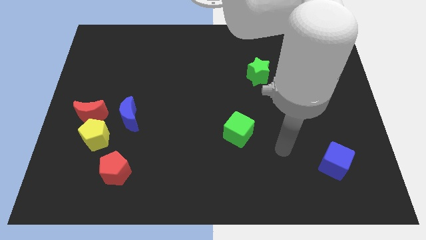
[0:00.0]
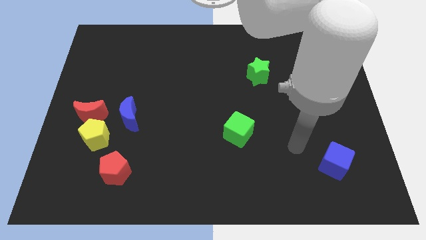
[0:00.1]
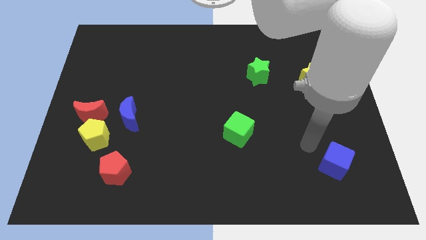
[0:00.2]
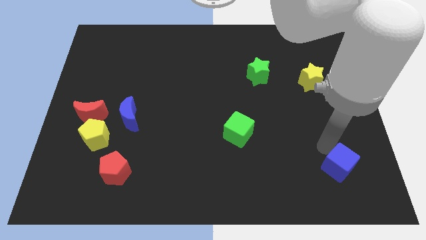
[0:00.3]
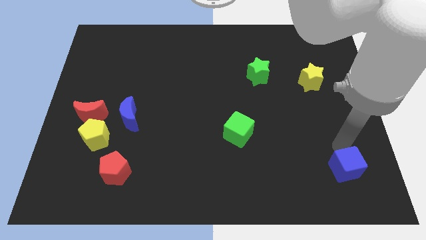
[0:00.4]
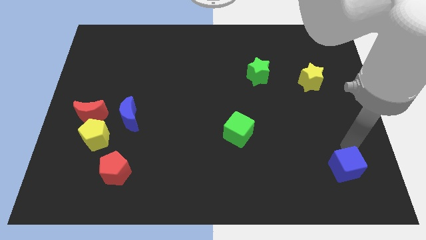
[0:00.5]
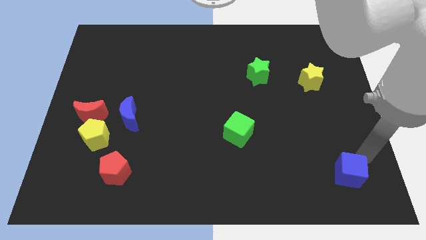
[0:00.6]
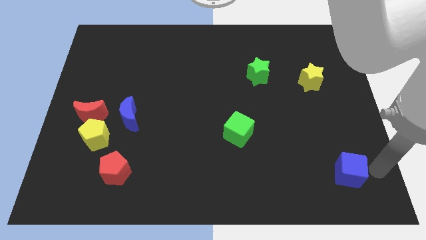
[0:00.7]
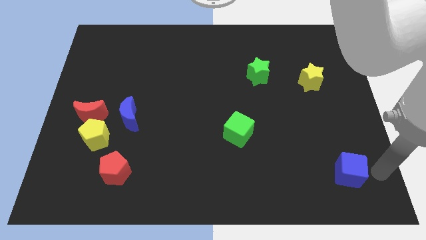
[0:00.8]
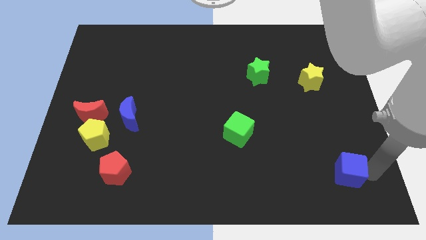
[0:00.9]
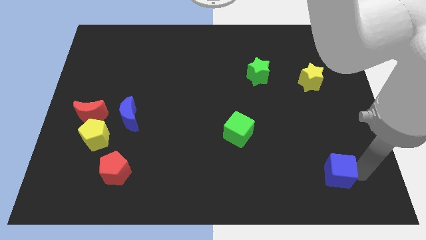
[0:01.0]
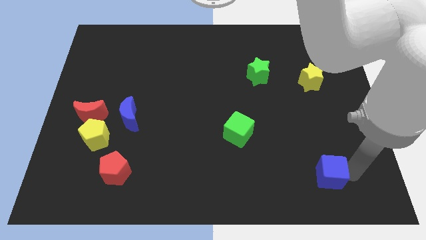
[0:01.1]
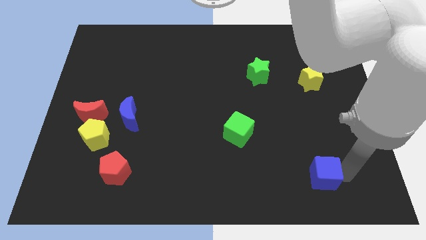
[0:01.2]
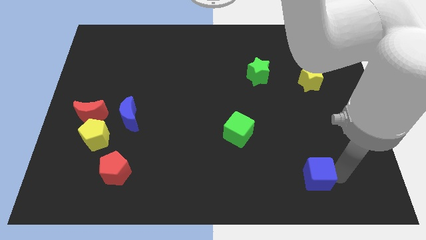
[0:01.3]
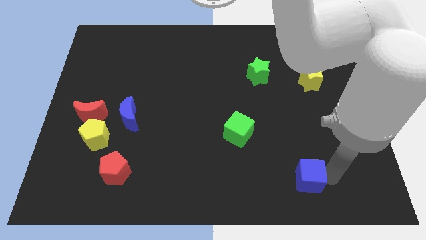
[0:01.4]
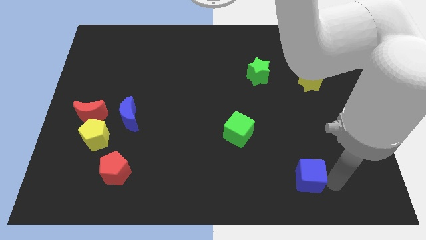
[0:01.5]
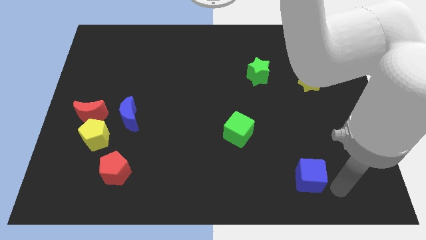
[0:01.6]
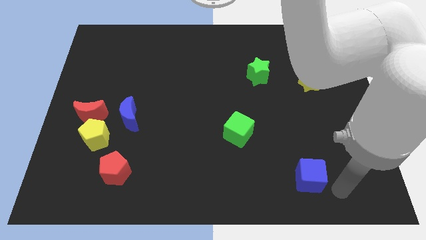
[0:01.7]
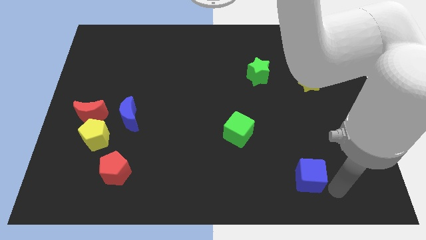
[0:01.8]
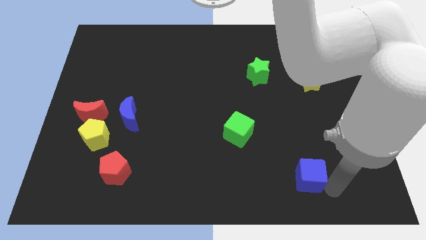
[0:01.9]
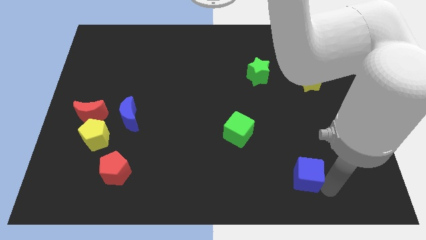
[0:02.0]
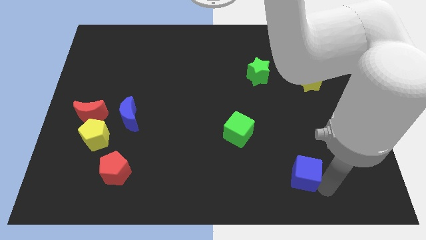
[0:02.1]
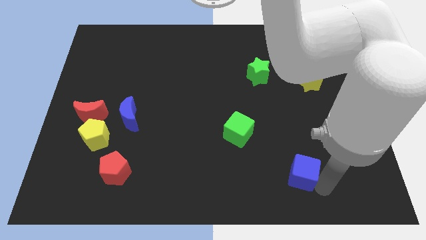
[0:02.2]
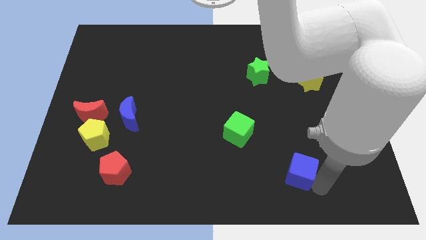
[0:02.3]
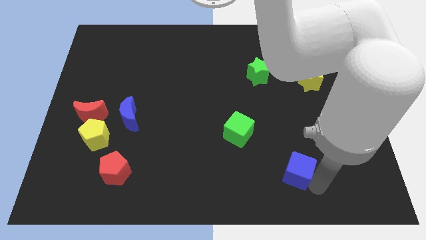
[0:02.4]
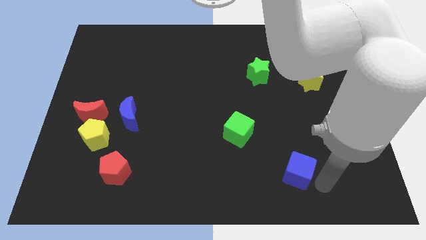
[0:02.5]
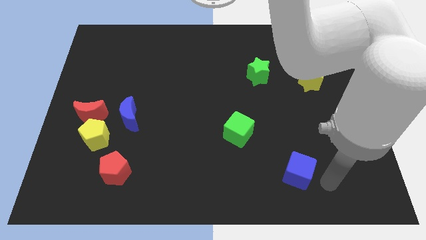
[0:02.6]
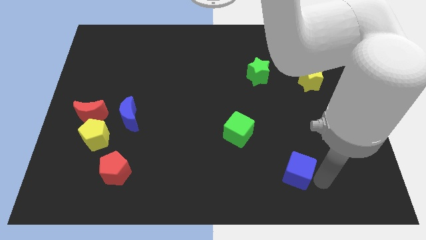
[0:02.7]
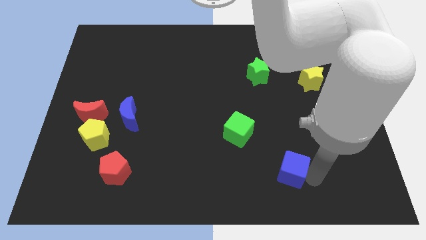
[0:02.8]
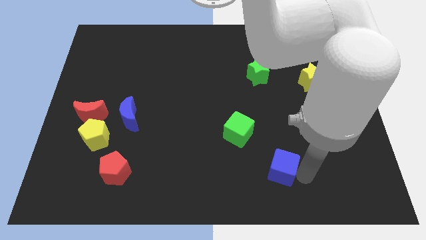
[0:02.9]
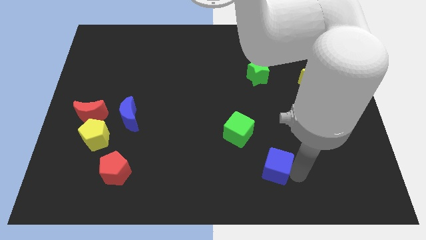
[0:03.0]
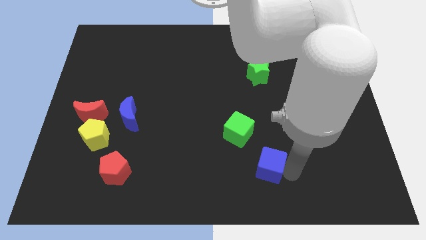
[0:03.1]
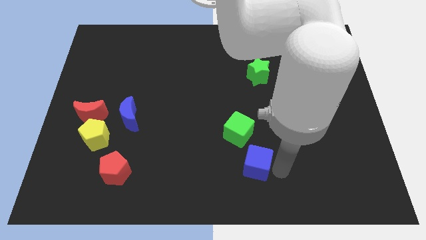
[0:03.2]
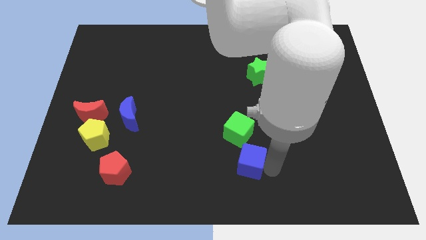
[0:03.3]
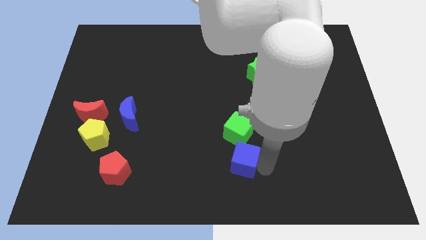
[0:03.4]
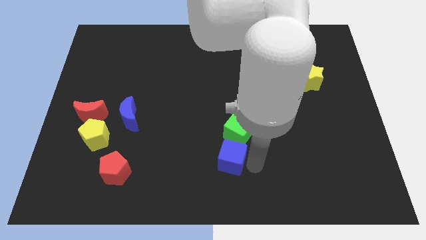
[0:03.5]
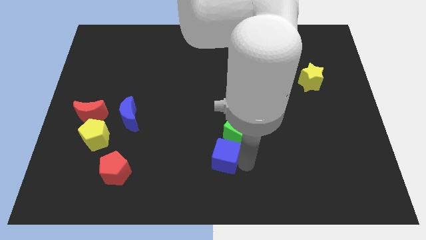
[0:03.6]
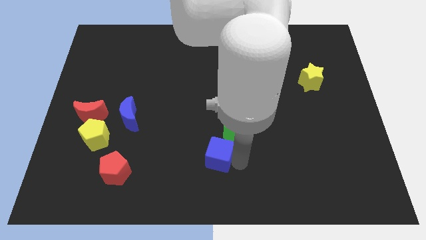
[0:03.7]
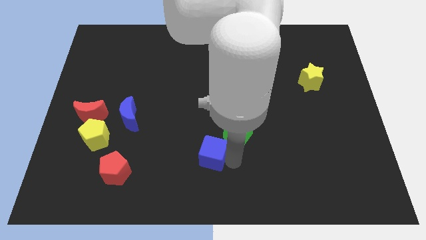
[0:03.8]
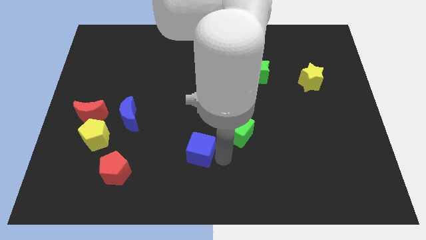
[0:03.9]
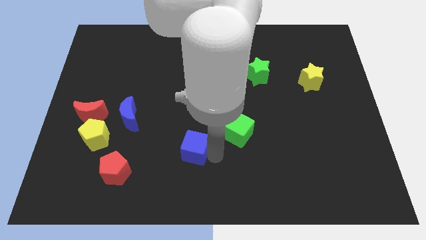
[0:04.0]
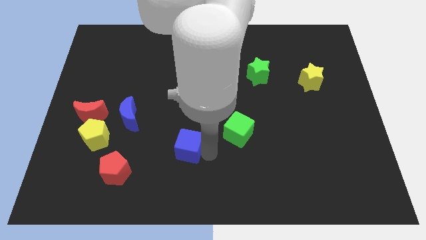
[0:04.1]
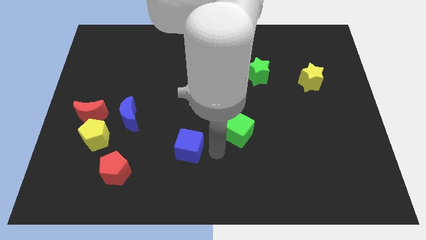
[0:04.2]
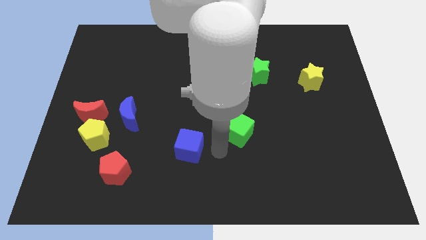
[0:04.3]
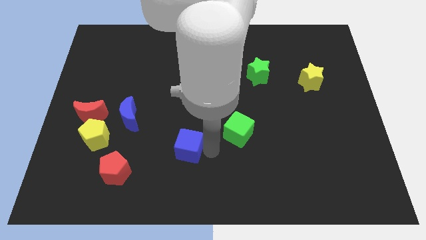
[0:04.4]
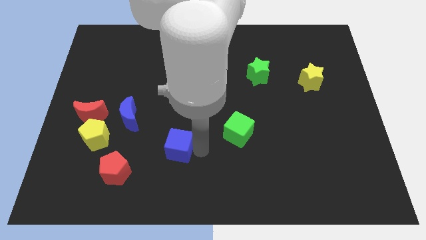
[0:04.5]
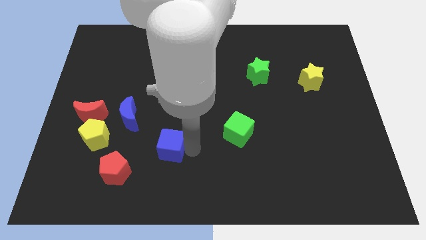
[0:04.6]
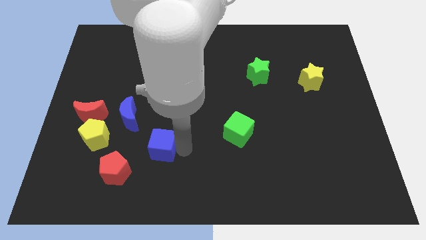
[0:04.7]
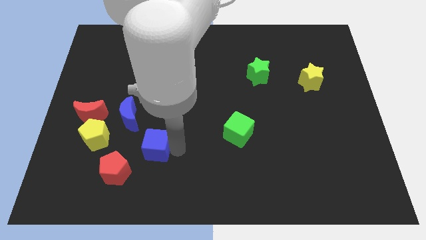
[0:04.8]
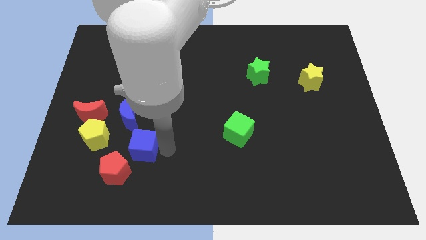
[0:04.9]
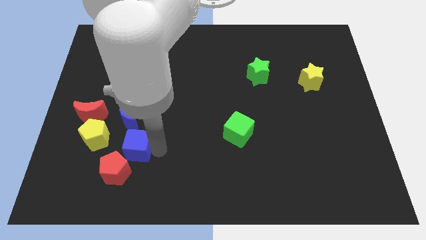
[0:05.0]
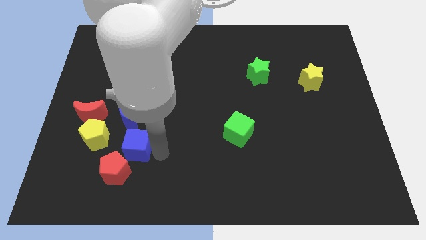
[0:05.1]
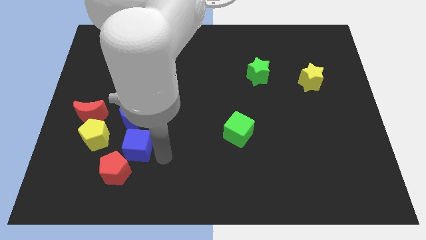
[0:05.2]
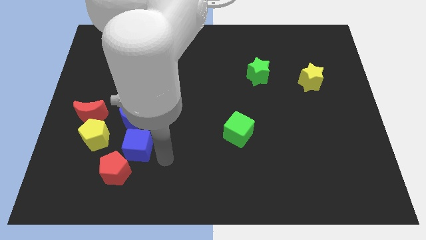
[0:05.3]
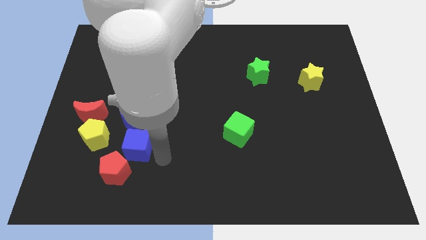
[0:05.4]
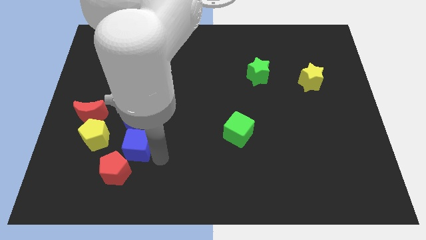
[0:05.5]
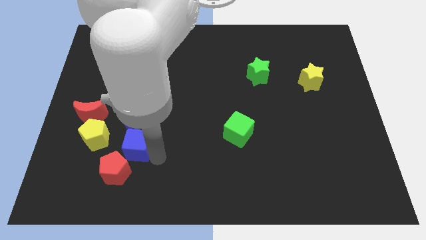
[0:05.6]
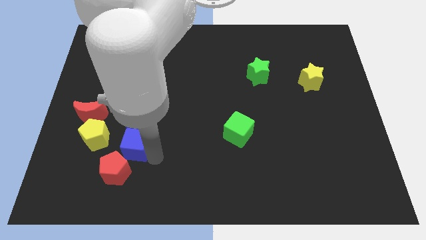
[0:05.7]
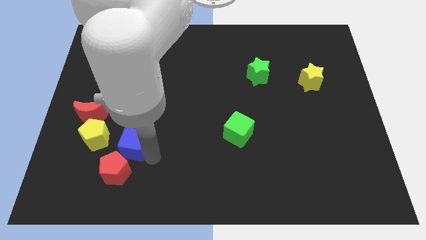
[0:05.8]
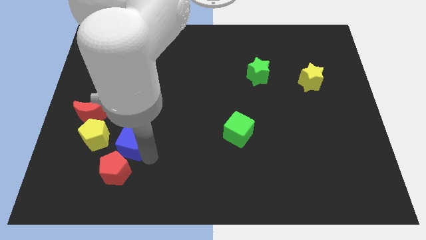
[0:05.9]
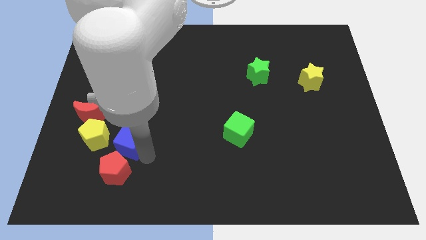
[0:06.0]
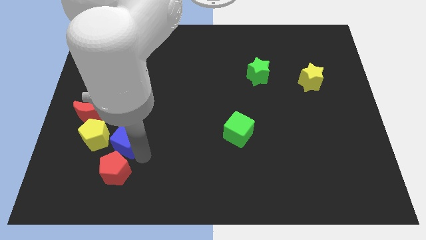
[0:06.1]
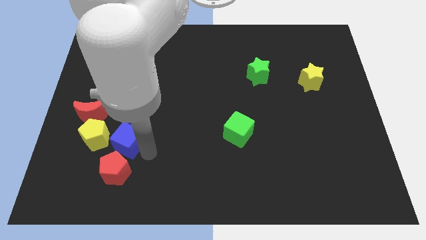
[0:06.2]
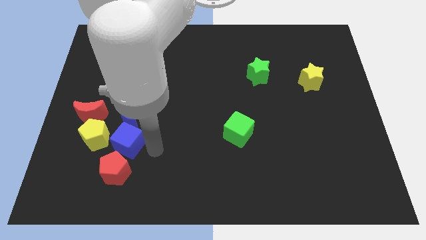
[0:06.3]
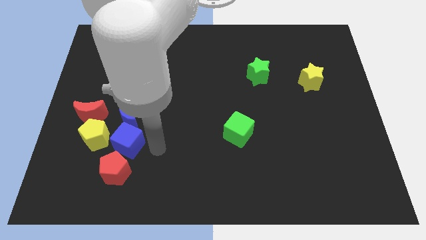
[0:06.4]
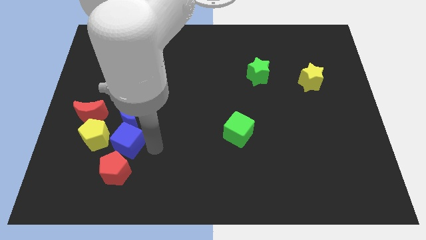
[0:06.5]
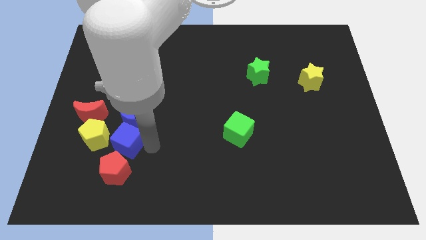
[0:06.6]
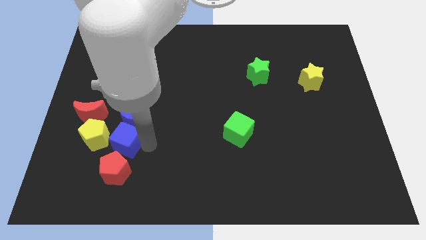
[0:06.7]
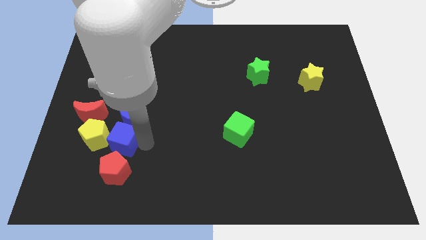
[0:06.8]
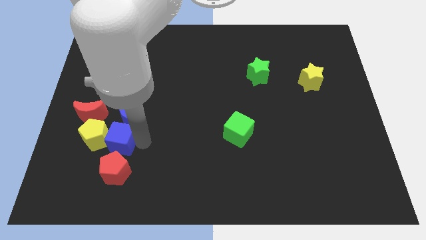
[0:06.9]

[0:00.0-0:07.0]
push the blue cube next to the yellow pentagon

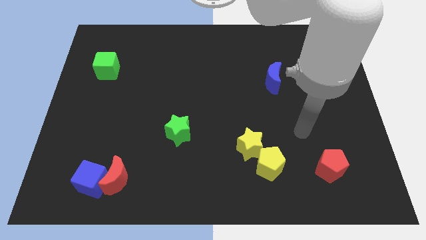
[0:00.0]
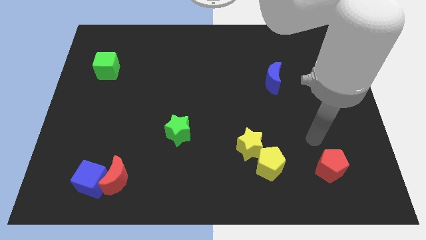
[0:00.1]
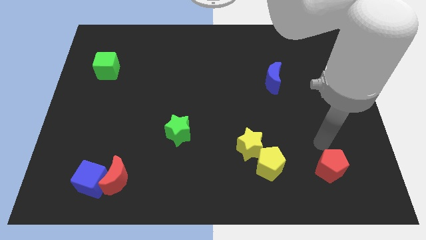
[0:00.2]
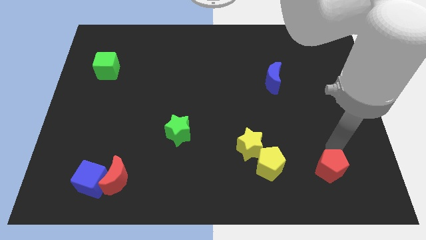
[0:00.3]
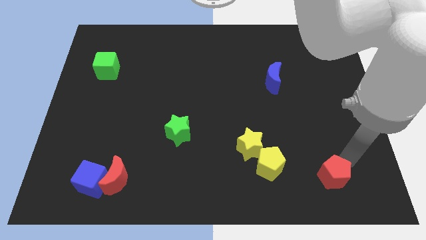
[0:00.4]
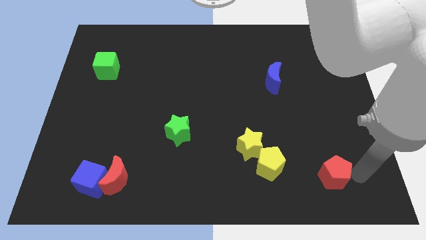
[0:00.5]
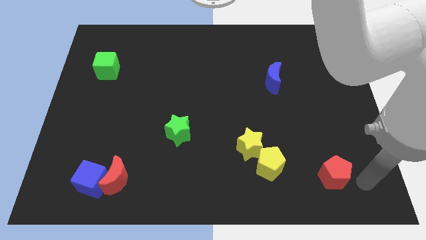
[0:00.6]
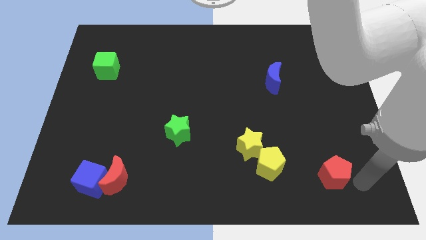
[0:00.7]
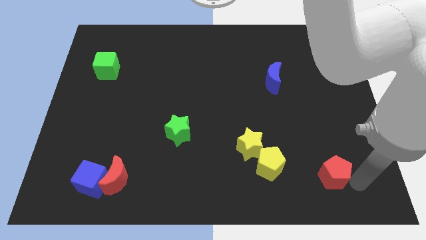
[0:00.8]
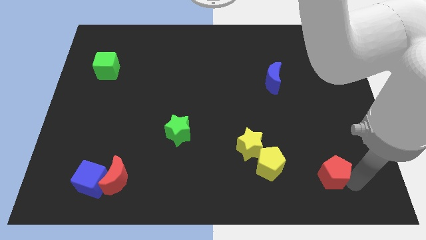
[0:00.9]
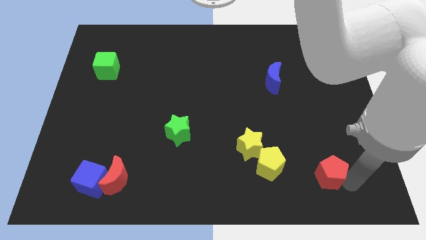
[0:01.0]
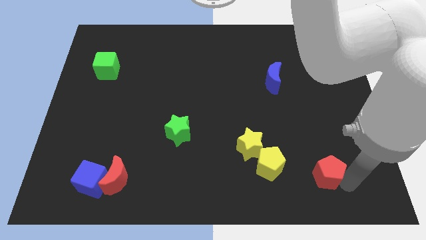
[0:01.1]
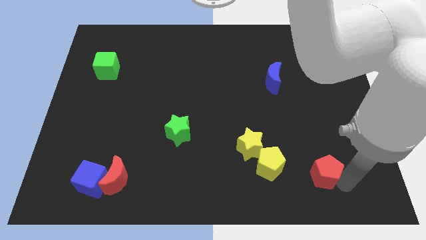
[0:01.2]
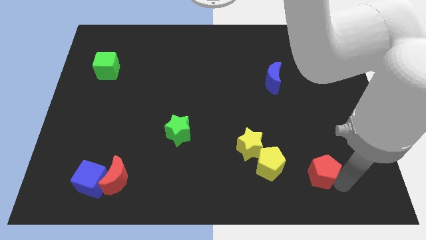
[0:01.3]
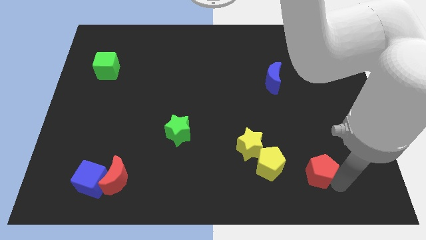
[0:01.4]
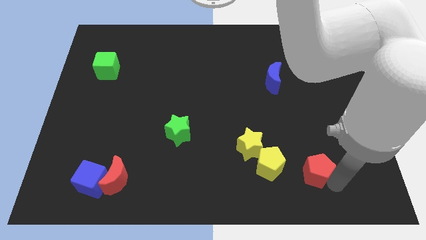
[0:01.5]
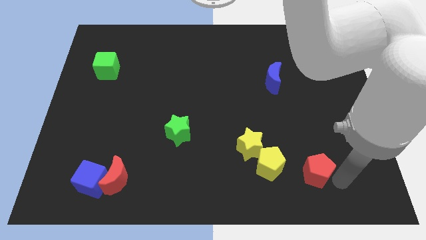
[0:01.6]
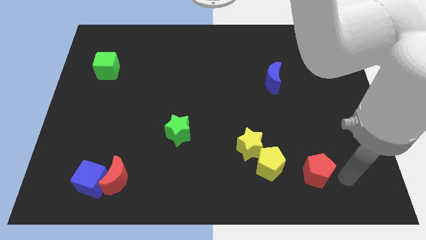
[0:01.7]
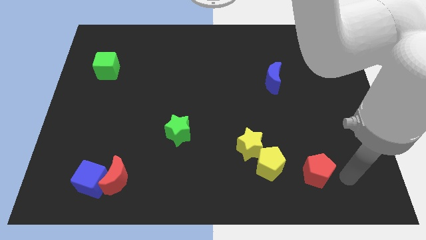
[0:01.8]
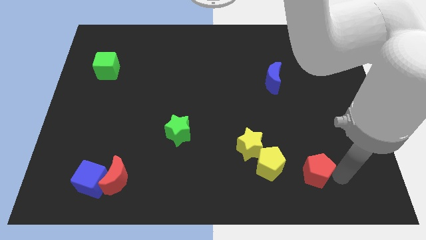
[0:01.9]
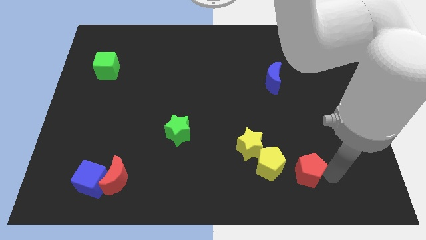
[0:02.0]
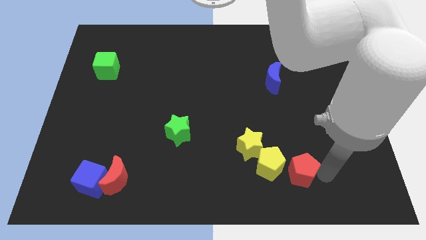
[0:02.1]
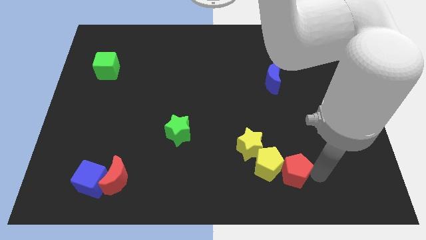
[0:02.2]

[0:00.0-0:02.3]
put the red pentagon close to the yellow pentagon
